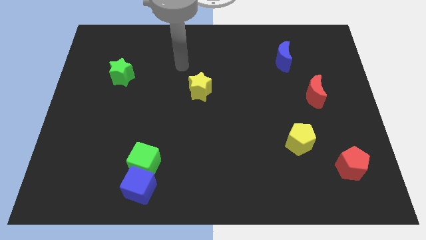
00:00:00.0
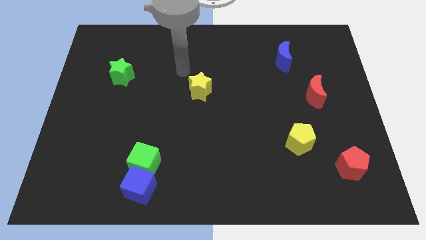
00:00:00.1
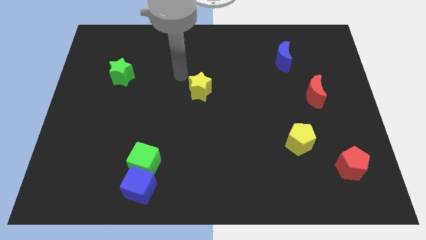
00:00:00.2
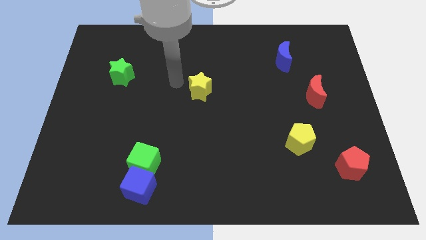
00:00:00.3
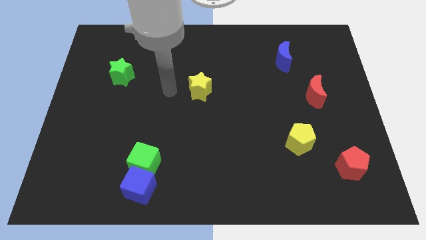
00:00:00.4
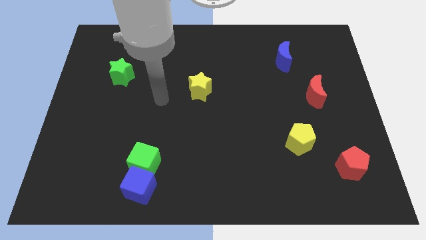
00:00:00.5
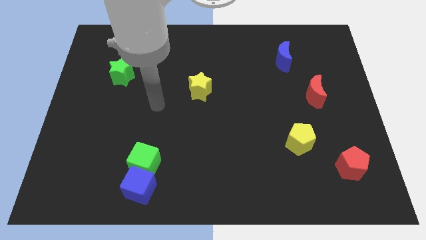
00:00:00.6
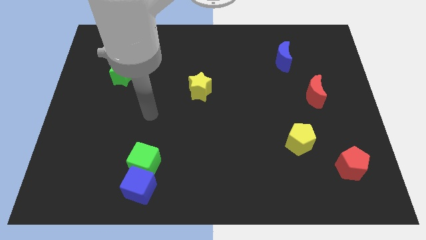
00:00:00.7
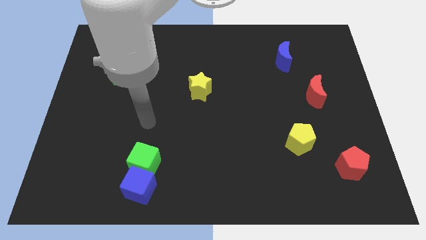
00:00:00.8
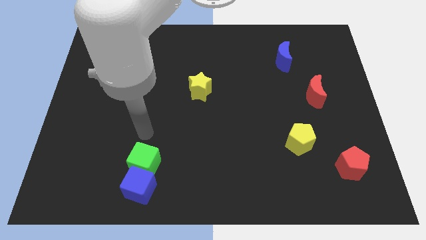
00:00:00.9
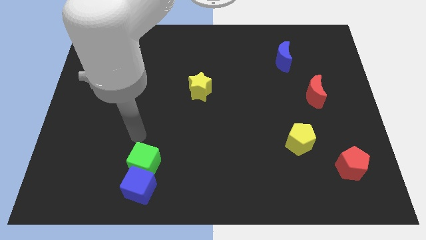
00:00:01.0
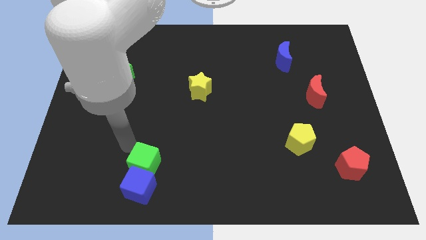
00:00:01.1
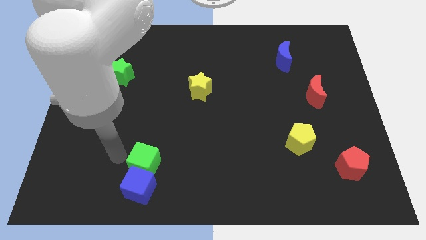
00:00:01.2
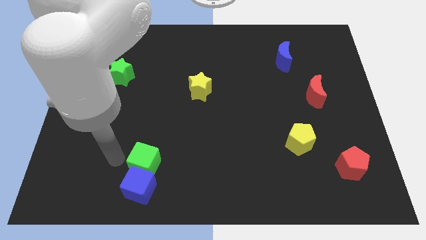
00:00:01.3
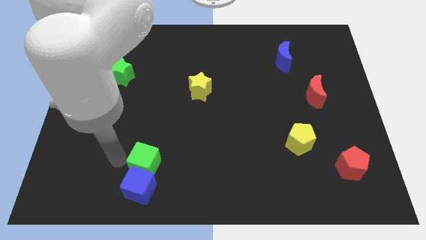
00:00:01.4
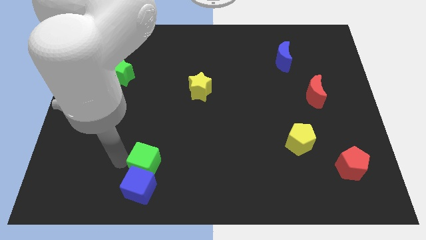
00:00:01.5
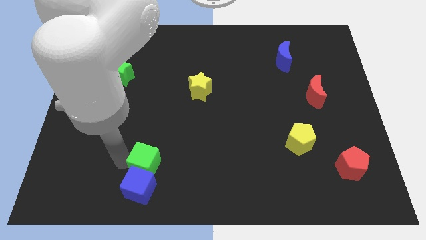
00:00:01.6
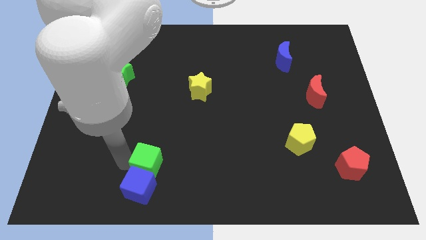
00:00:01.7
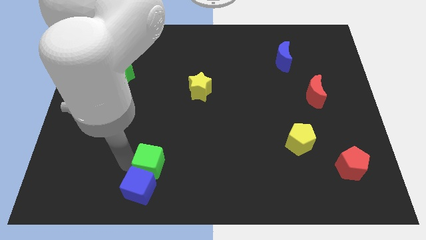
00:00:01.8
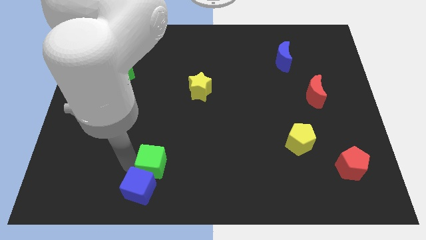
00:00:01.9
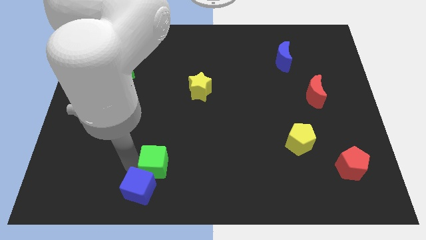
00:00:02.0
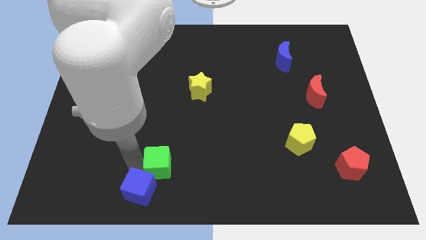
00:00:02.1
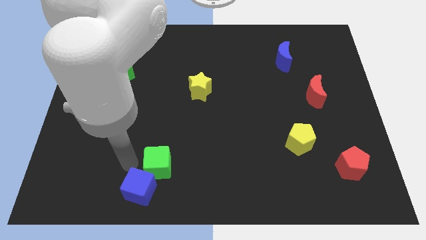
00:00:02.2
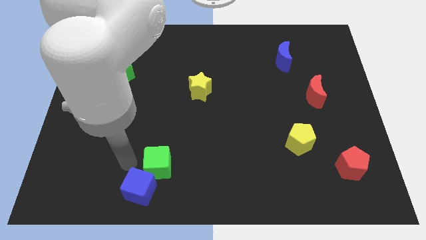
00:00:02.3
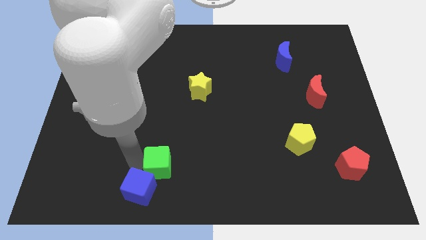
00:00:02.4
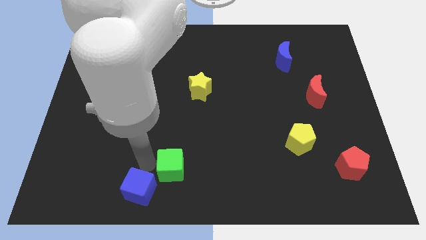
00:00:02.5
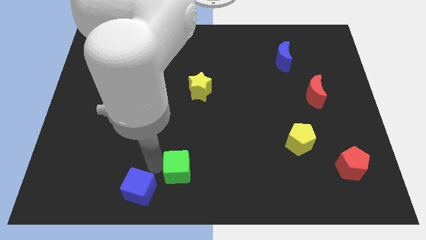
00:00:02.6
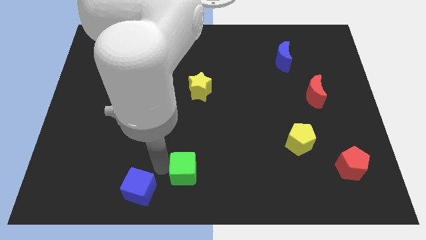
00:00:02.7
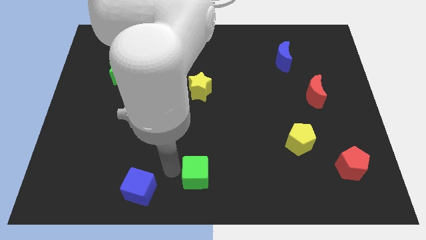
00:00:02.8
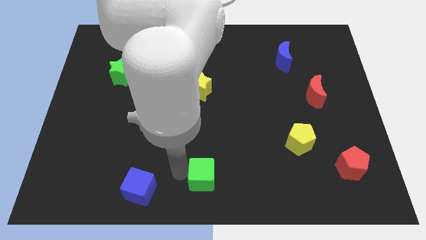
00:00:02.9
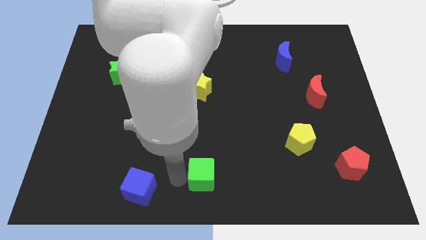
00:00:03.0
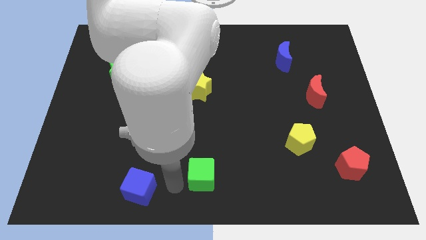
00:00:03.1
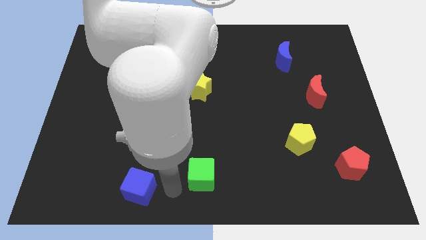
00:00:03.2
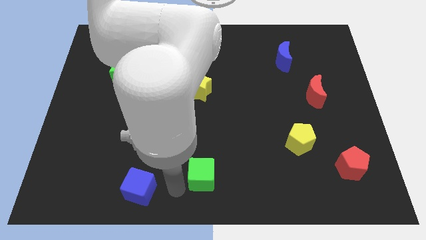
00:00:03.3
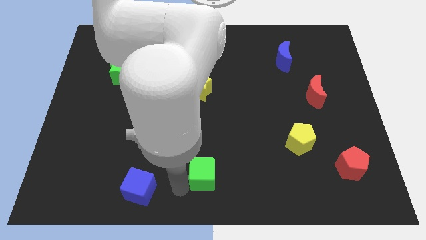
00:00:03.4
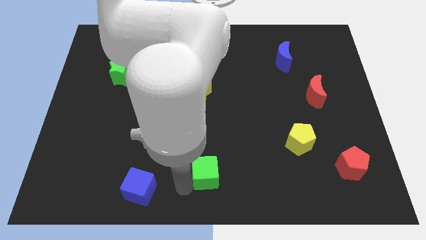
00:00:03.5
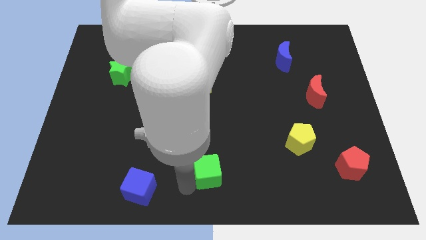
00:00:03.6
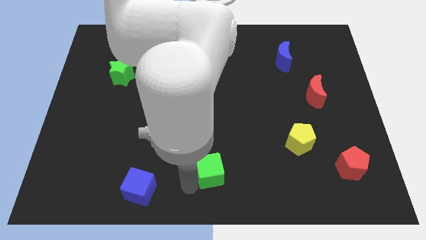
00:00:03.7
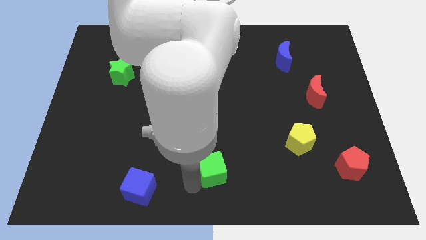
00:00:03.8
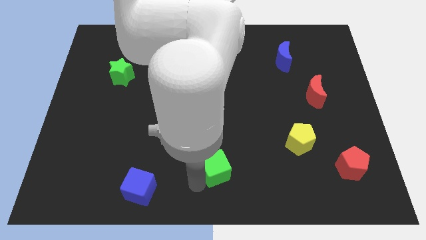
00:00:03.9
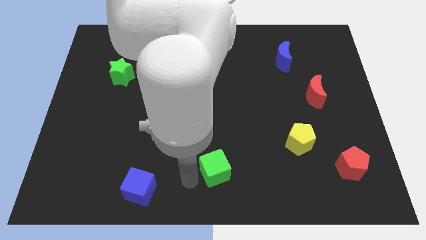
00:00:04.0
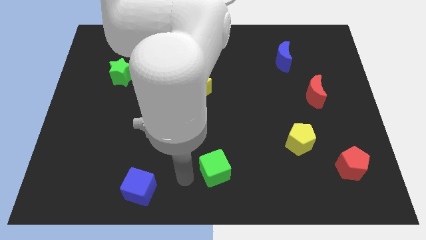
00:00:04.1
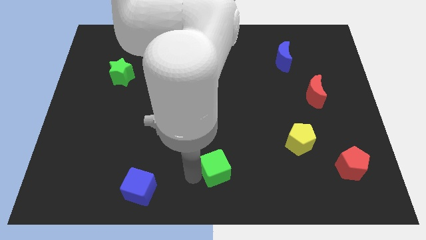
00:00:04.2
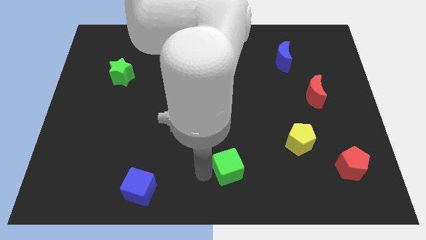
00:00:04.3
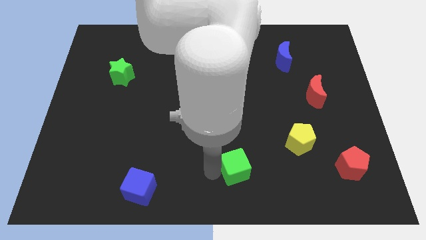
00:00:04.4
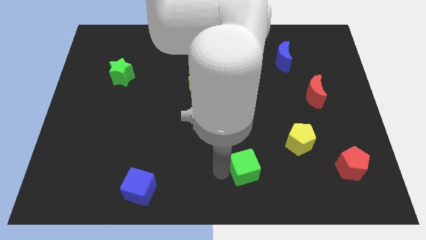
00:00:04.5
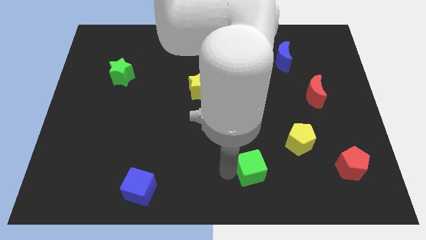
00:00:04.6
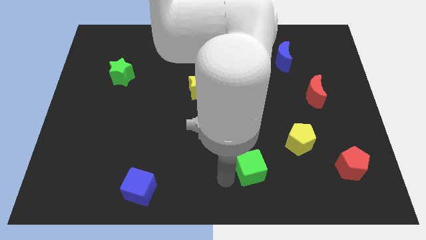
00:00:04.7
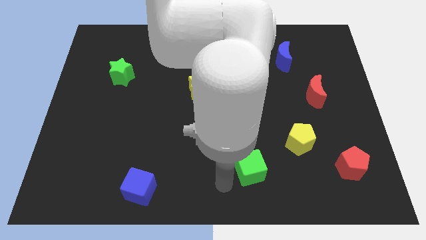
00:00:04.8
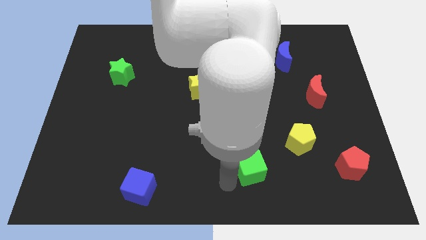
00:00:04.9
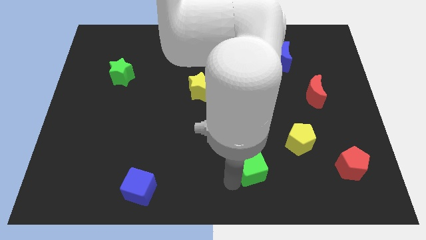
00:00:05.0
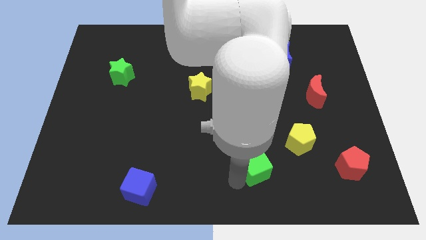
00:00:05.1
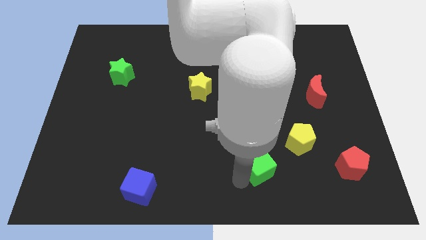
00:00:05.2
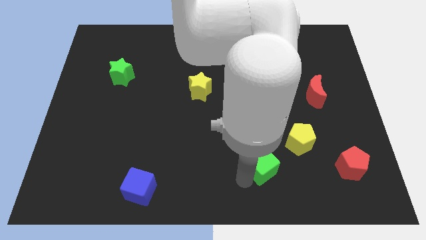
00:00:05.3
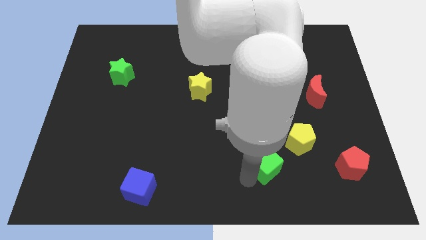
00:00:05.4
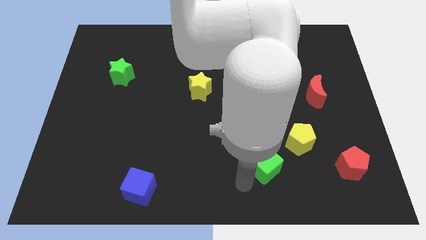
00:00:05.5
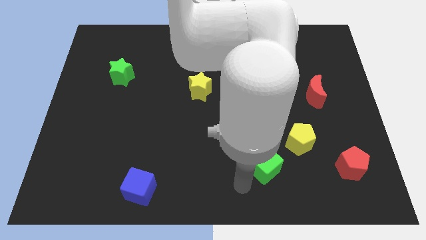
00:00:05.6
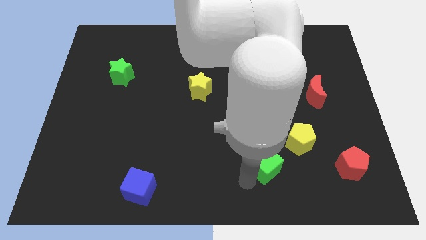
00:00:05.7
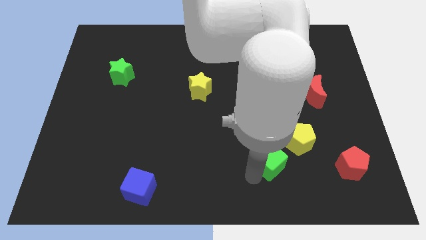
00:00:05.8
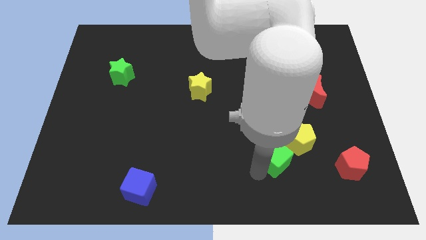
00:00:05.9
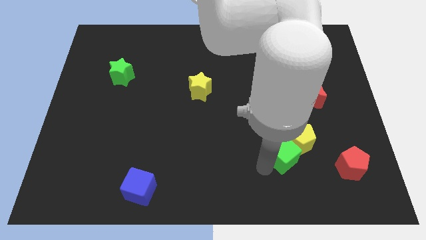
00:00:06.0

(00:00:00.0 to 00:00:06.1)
move the green cube next to the yellow pentagon

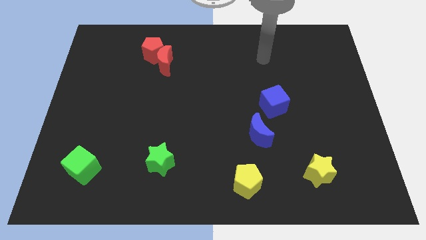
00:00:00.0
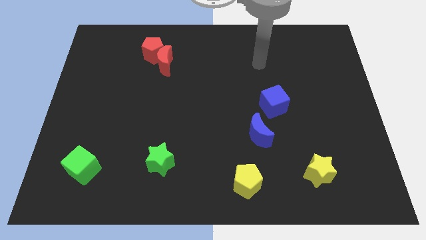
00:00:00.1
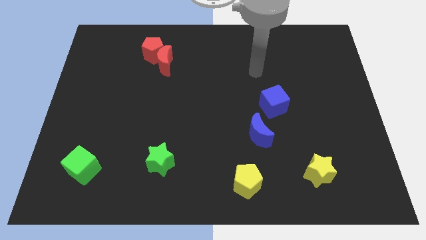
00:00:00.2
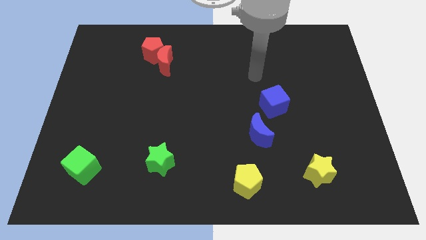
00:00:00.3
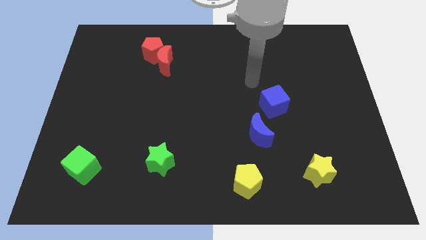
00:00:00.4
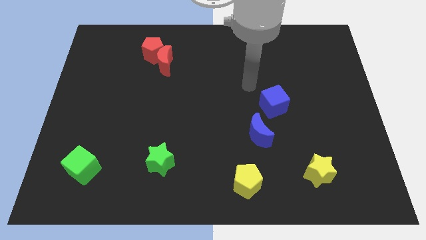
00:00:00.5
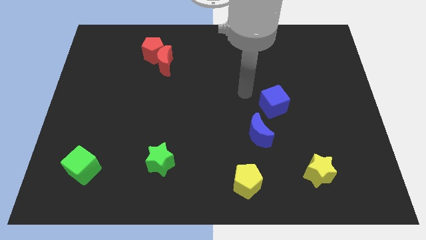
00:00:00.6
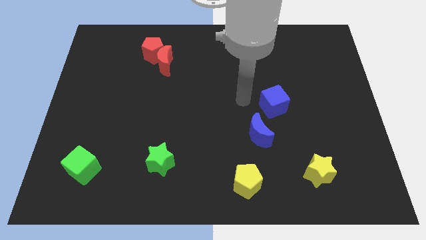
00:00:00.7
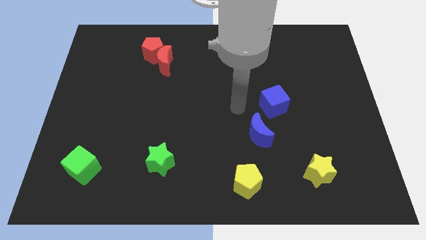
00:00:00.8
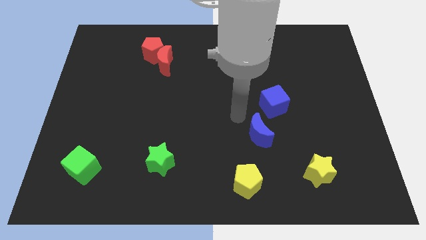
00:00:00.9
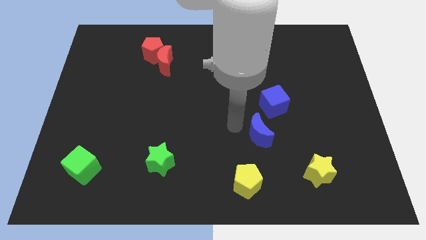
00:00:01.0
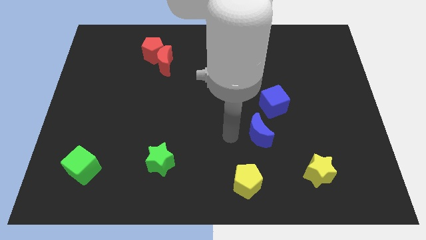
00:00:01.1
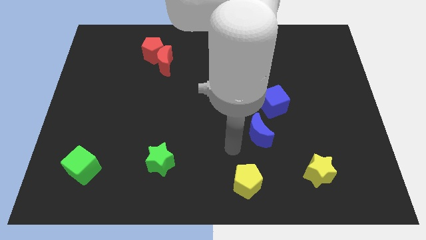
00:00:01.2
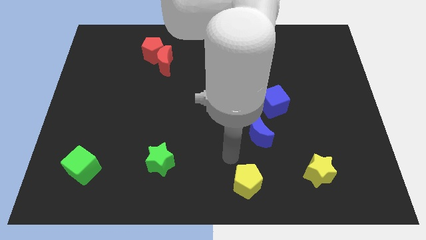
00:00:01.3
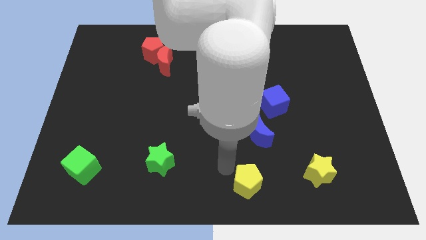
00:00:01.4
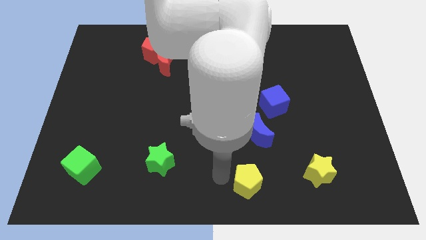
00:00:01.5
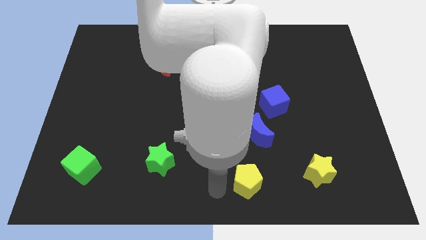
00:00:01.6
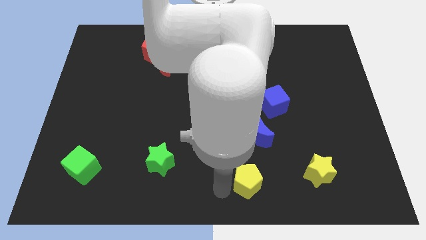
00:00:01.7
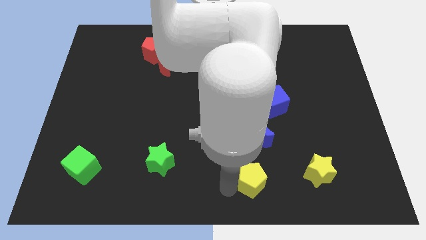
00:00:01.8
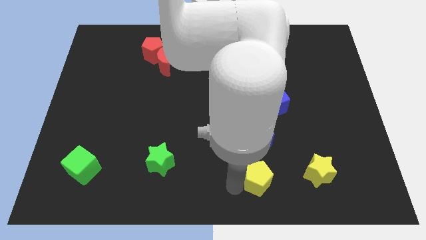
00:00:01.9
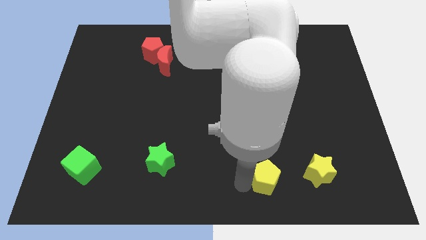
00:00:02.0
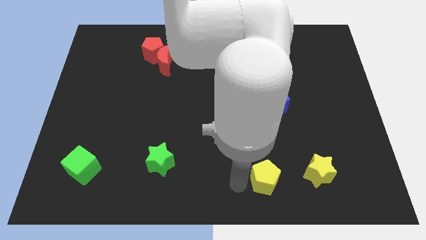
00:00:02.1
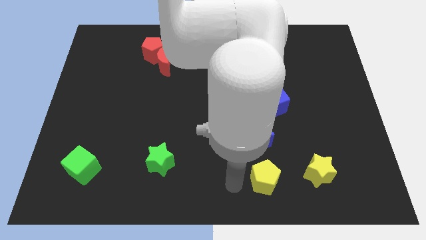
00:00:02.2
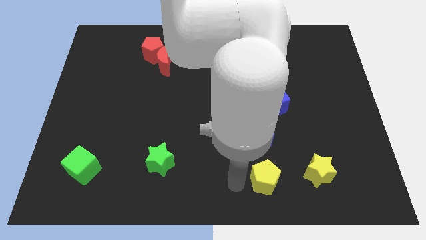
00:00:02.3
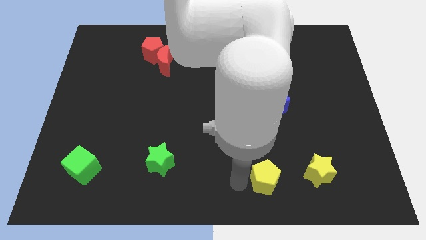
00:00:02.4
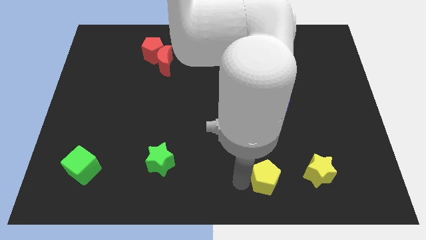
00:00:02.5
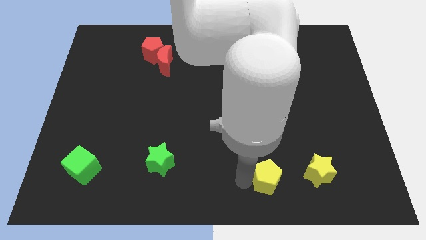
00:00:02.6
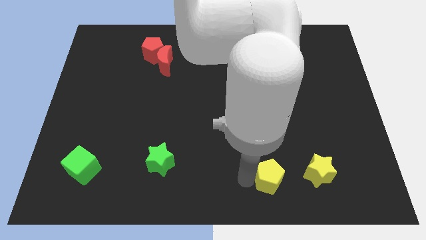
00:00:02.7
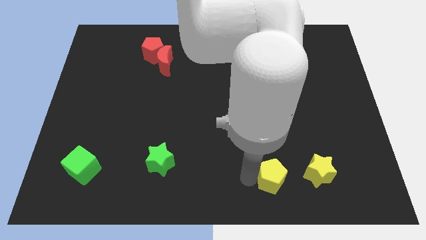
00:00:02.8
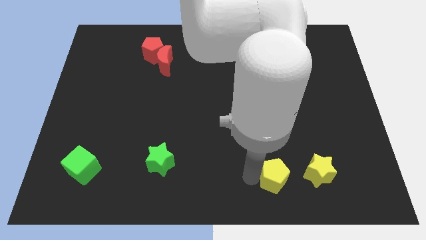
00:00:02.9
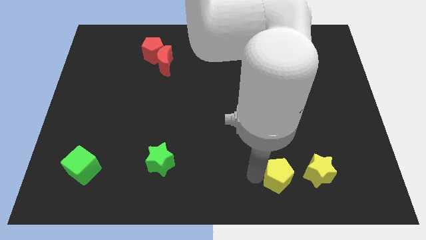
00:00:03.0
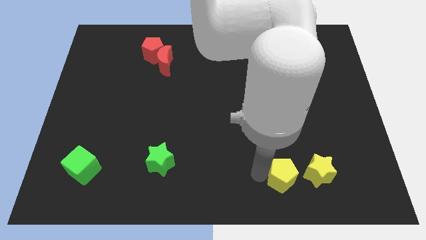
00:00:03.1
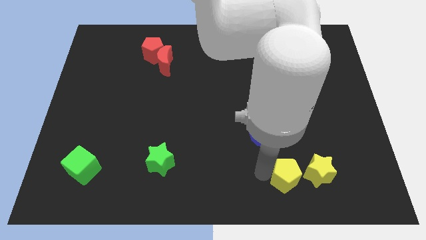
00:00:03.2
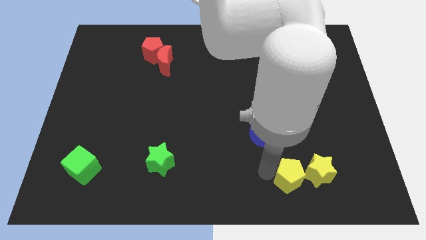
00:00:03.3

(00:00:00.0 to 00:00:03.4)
move the yellow pentagon next to the yellow star
